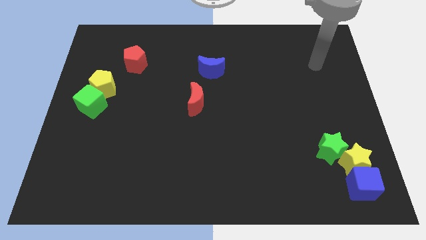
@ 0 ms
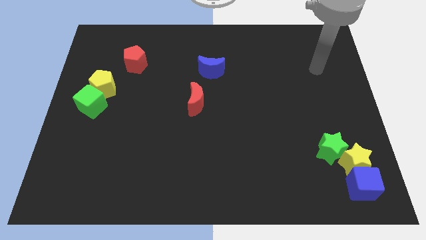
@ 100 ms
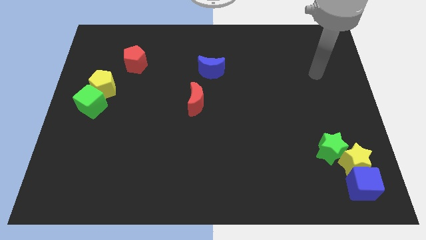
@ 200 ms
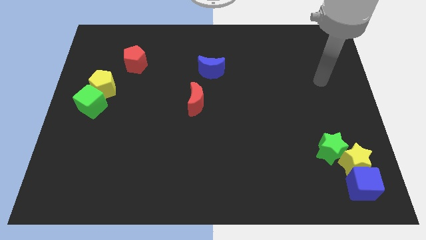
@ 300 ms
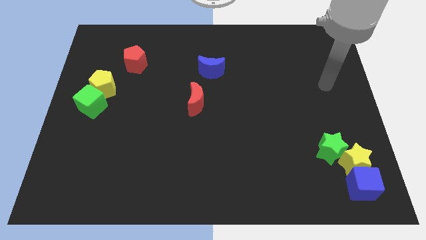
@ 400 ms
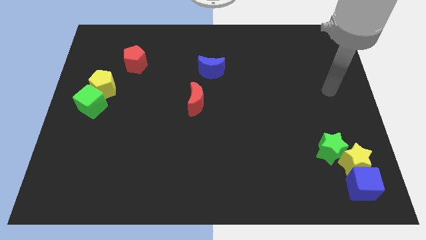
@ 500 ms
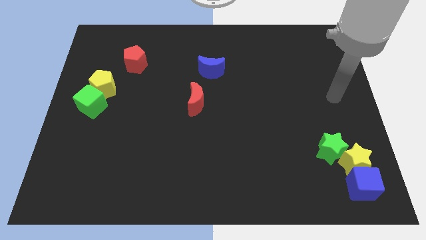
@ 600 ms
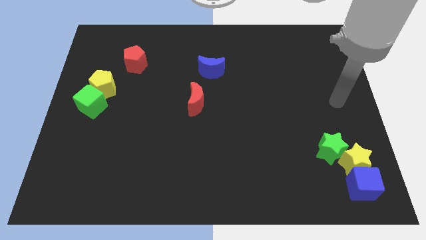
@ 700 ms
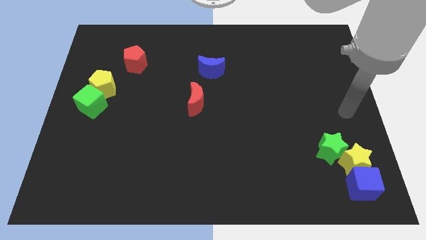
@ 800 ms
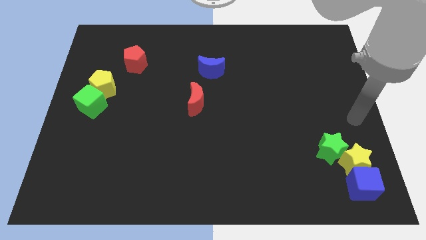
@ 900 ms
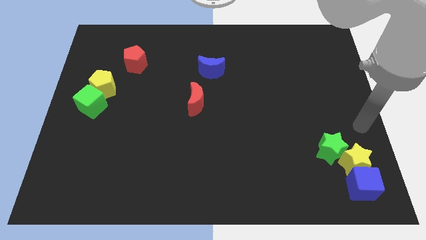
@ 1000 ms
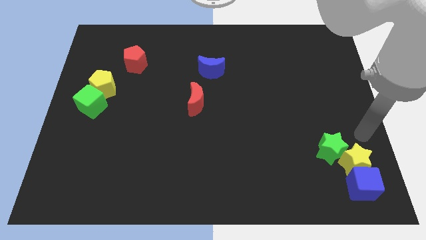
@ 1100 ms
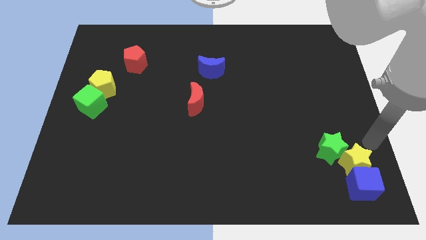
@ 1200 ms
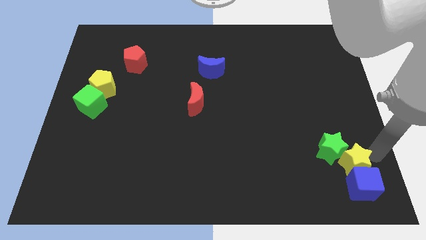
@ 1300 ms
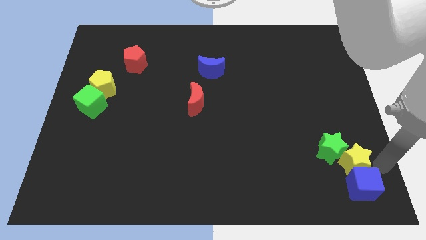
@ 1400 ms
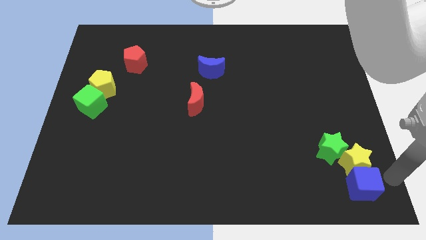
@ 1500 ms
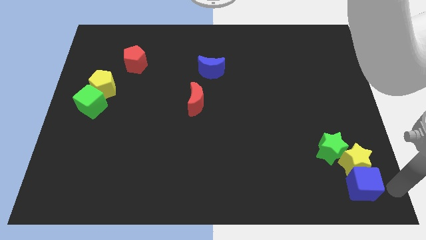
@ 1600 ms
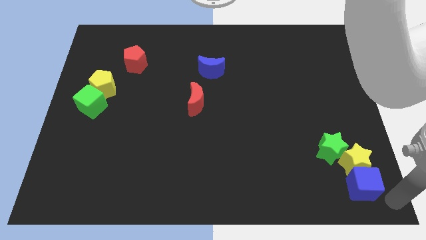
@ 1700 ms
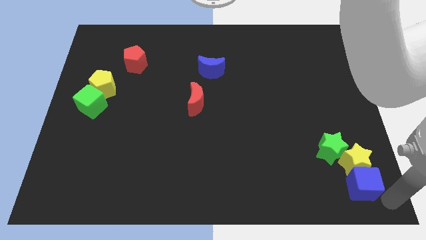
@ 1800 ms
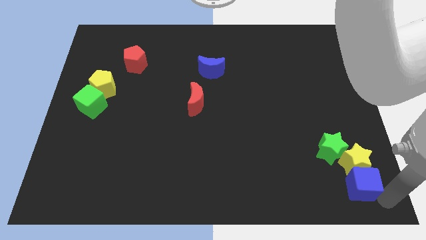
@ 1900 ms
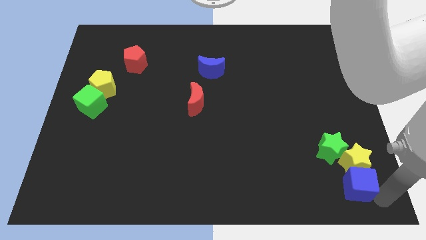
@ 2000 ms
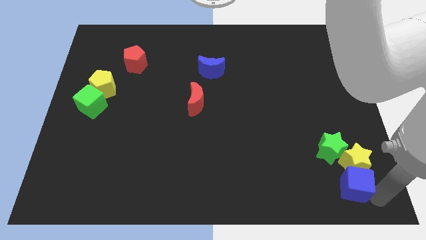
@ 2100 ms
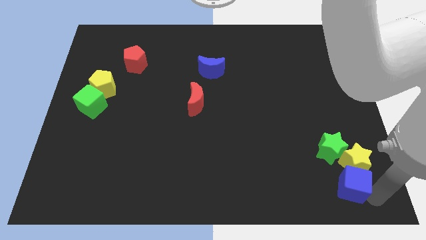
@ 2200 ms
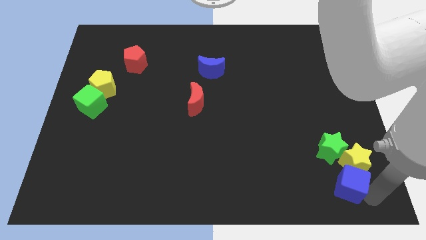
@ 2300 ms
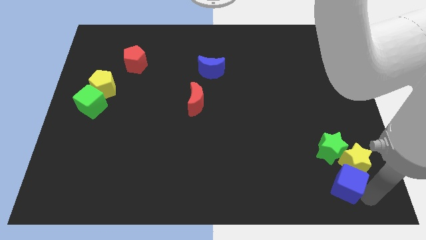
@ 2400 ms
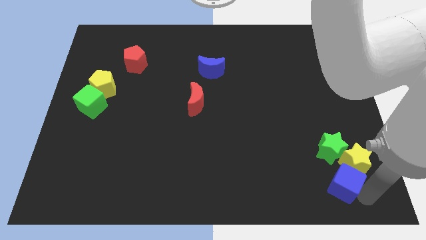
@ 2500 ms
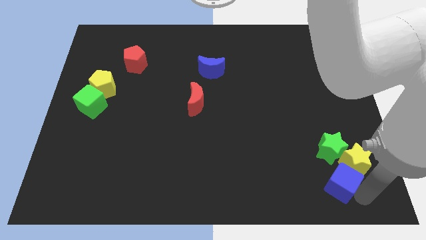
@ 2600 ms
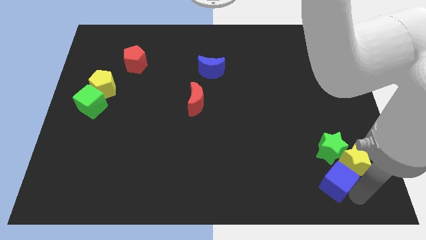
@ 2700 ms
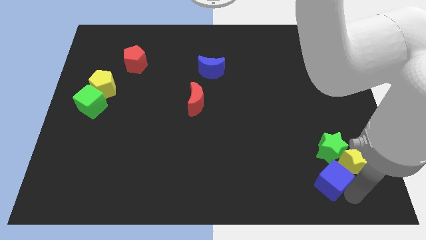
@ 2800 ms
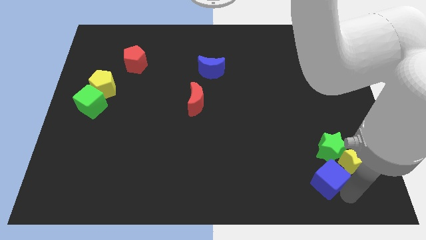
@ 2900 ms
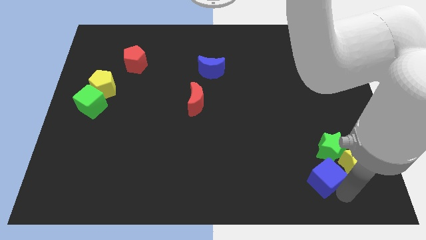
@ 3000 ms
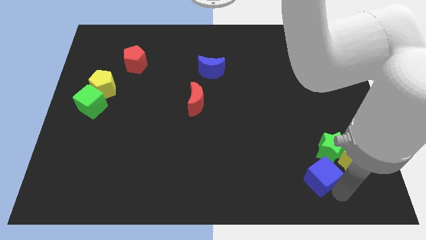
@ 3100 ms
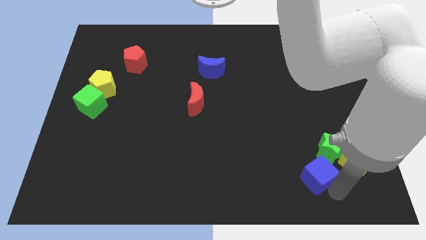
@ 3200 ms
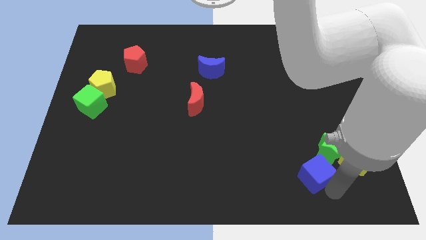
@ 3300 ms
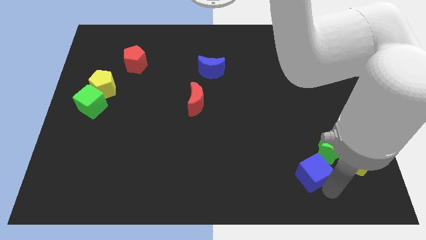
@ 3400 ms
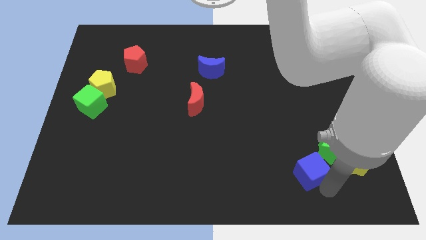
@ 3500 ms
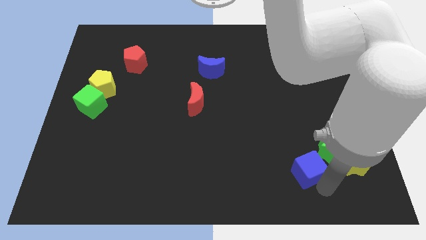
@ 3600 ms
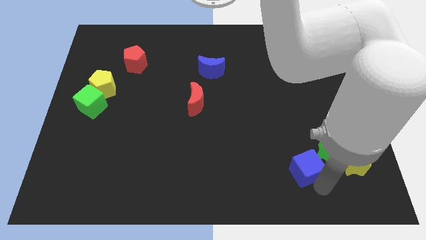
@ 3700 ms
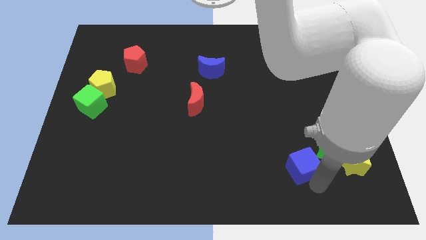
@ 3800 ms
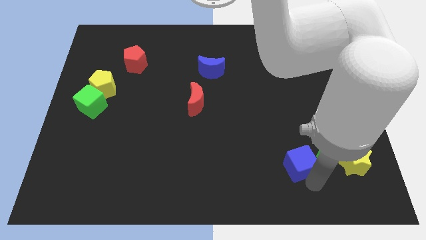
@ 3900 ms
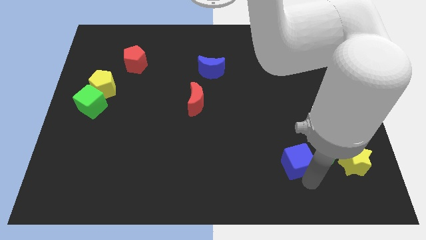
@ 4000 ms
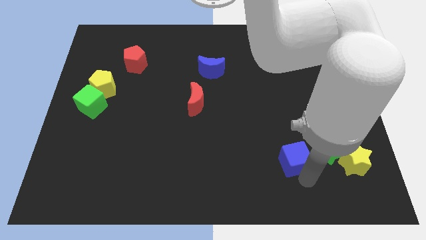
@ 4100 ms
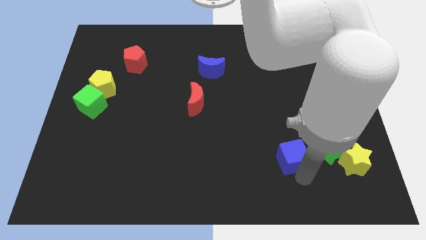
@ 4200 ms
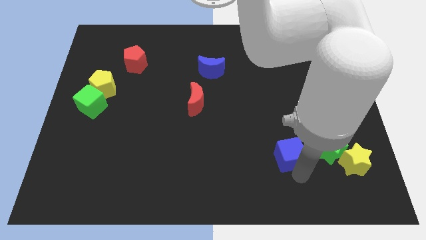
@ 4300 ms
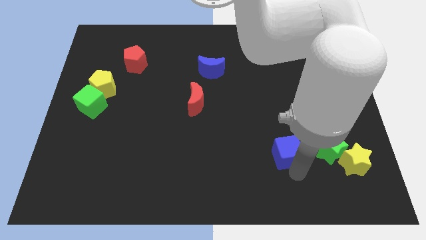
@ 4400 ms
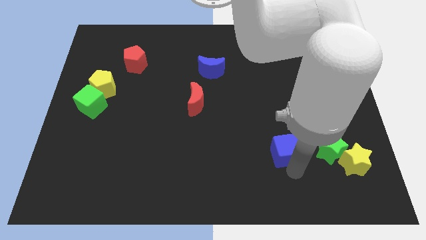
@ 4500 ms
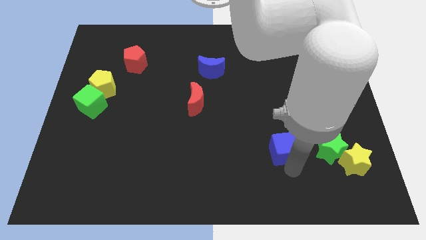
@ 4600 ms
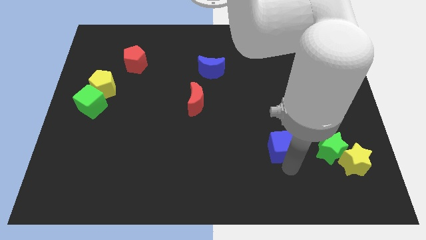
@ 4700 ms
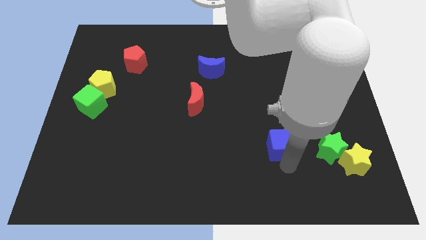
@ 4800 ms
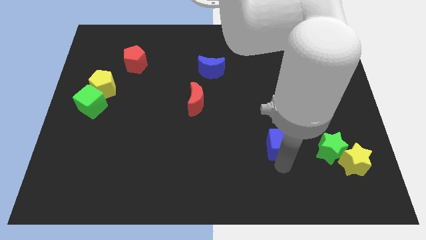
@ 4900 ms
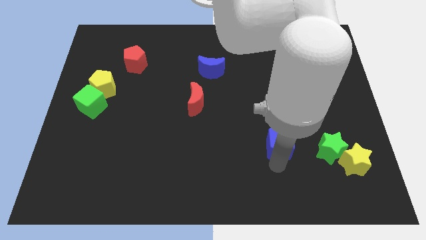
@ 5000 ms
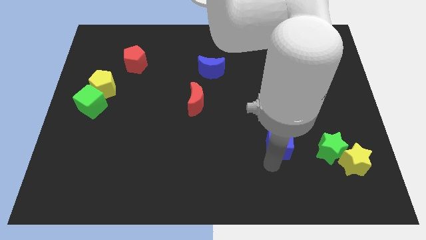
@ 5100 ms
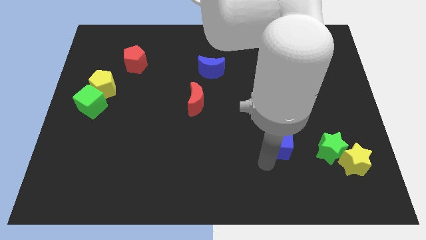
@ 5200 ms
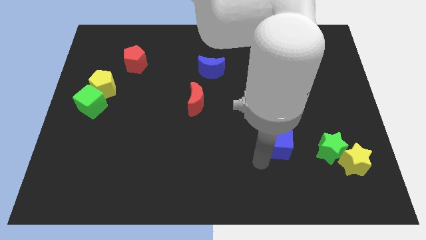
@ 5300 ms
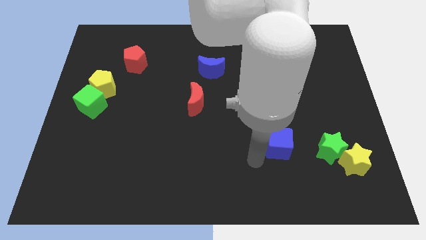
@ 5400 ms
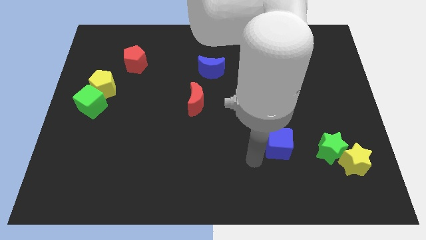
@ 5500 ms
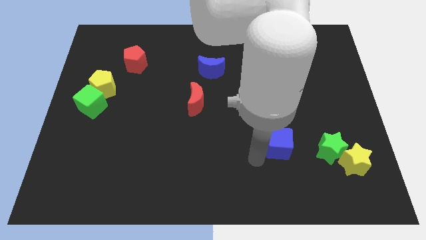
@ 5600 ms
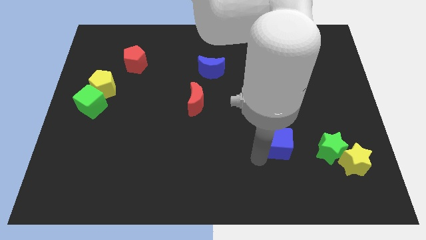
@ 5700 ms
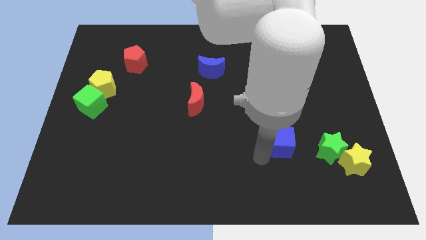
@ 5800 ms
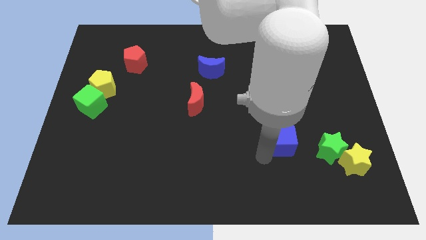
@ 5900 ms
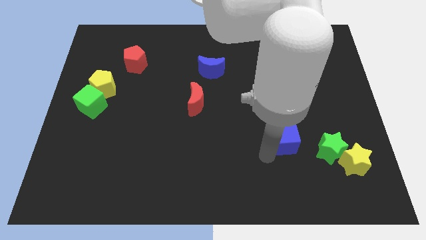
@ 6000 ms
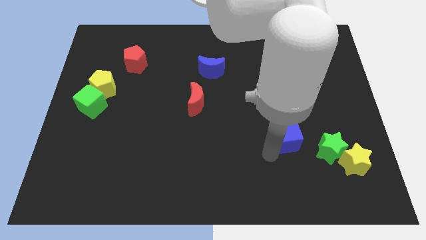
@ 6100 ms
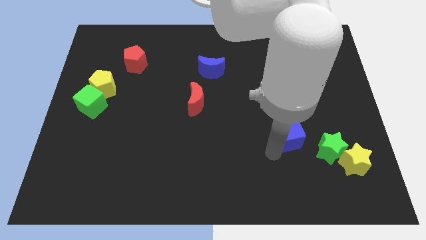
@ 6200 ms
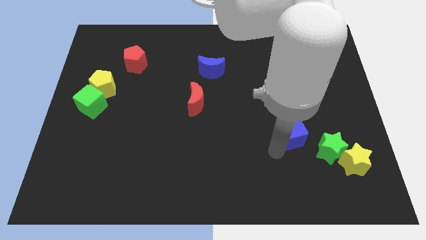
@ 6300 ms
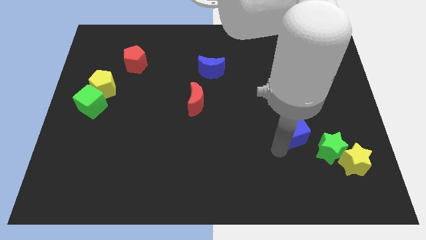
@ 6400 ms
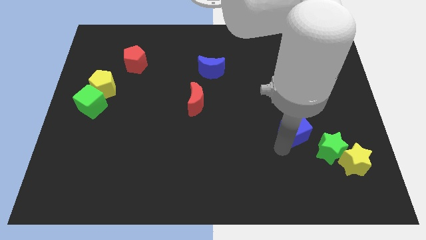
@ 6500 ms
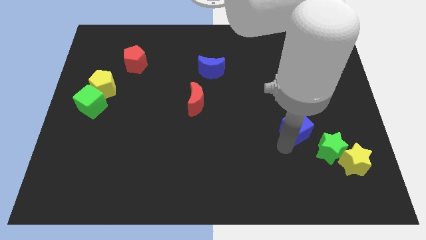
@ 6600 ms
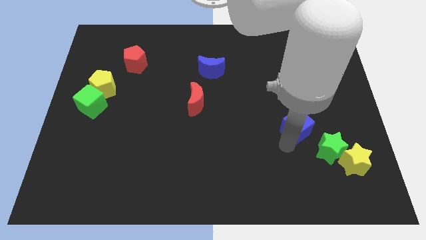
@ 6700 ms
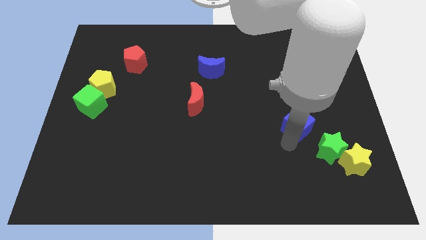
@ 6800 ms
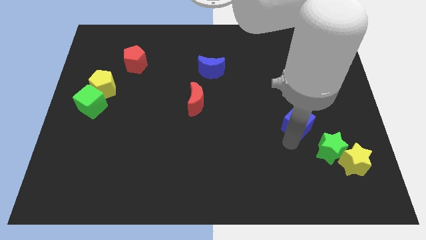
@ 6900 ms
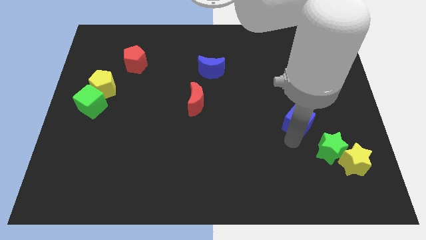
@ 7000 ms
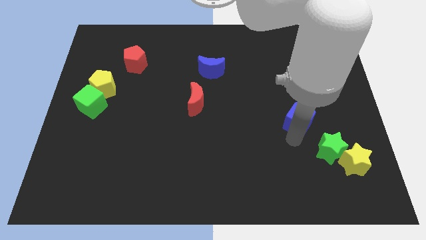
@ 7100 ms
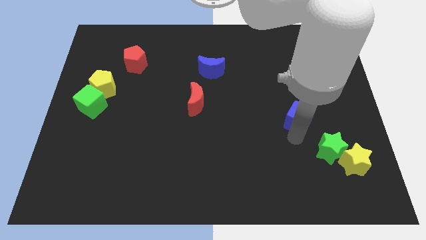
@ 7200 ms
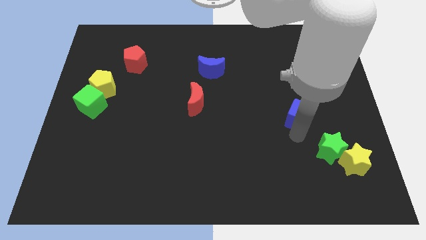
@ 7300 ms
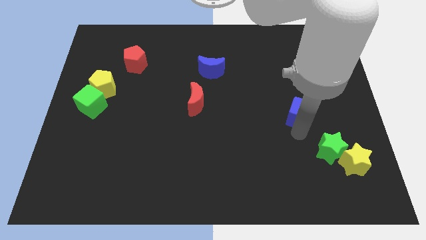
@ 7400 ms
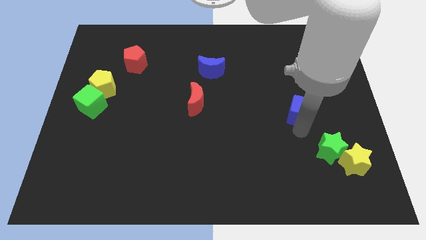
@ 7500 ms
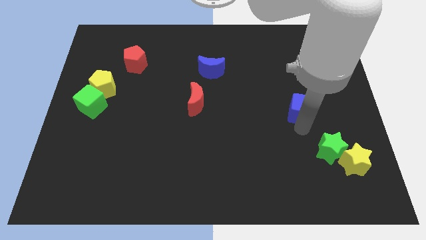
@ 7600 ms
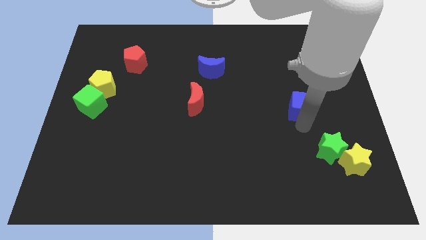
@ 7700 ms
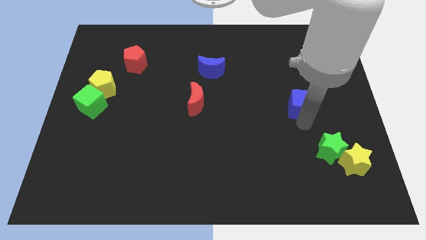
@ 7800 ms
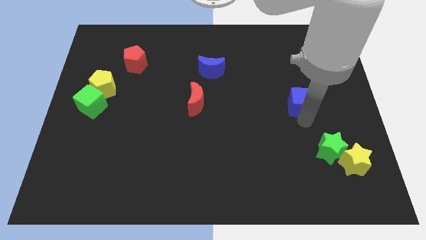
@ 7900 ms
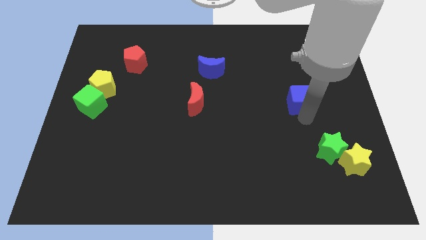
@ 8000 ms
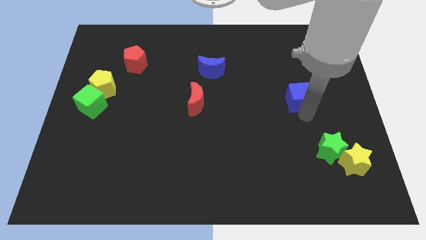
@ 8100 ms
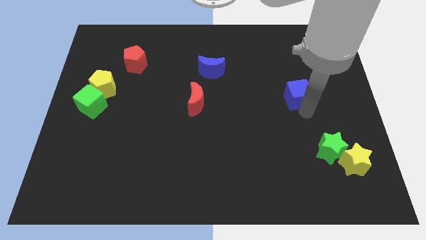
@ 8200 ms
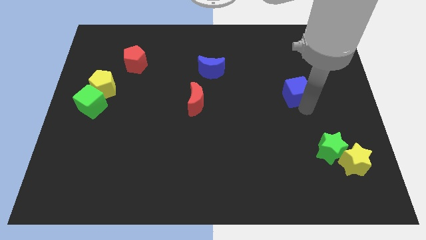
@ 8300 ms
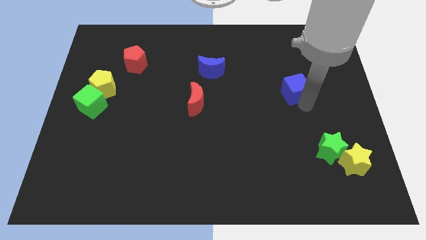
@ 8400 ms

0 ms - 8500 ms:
move the blue cube diagonally upwards and to the left
